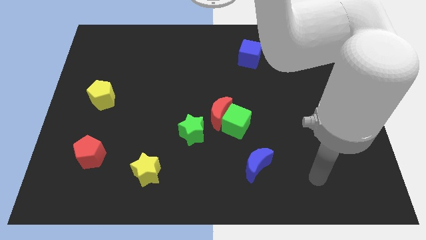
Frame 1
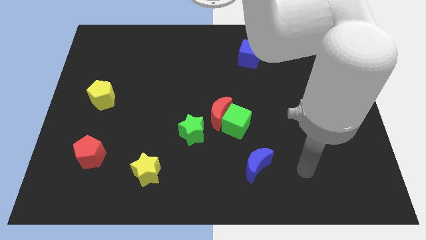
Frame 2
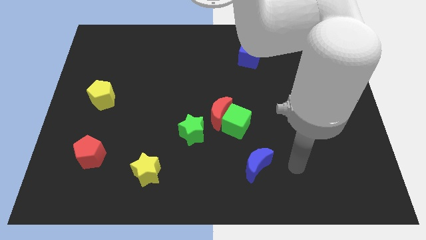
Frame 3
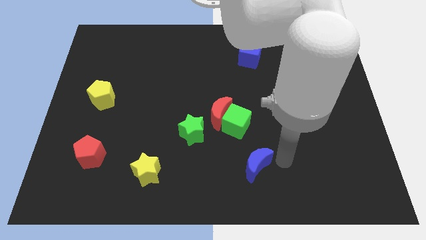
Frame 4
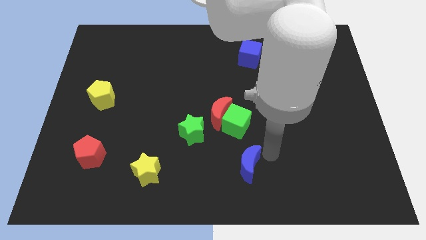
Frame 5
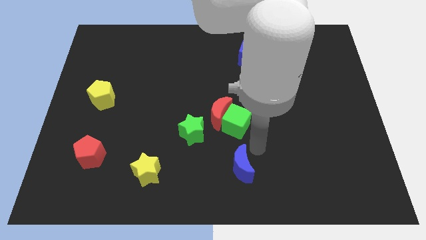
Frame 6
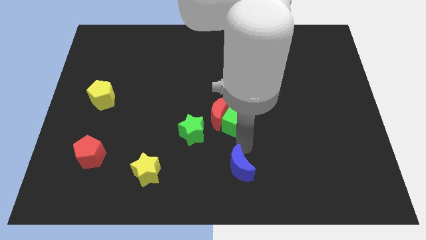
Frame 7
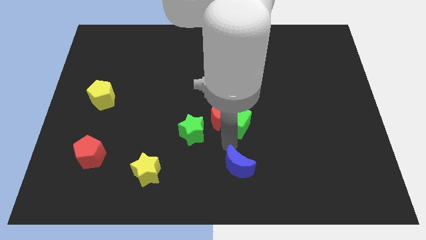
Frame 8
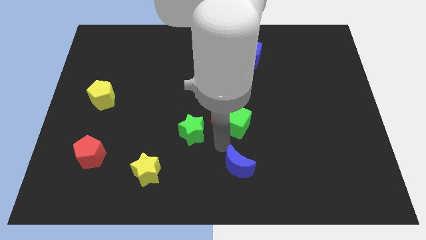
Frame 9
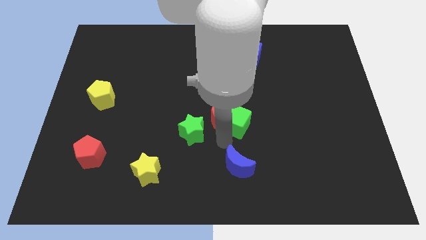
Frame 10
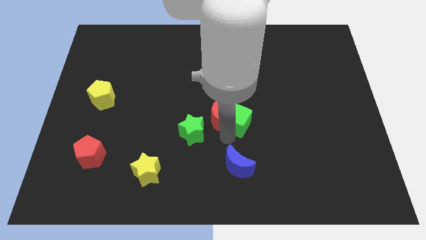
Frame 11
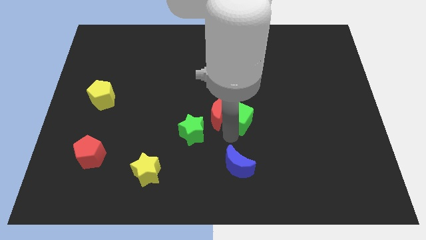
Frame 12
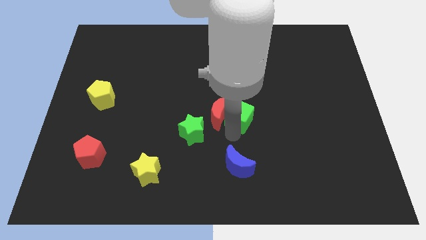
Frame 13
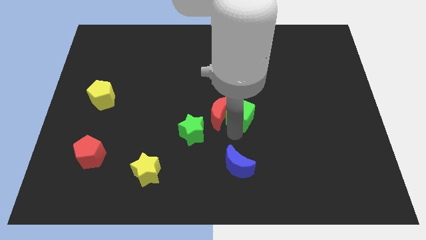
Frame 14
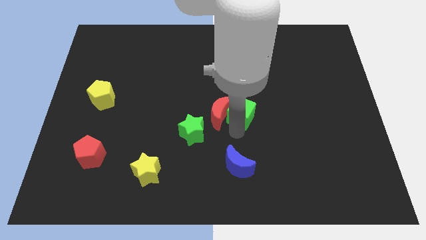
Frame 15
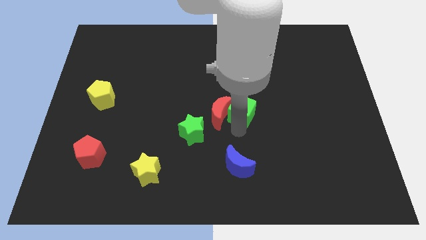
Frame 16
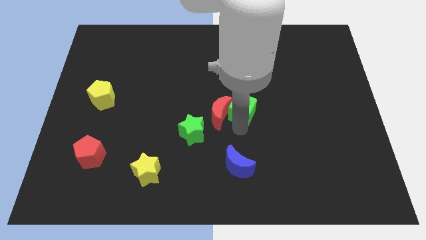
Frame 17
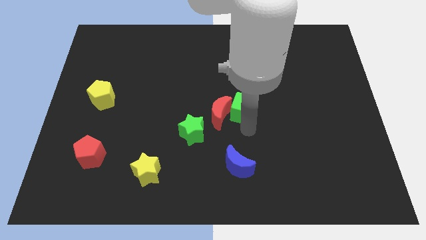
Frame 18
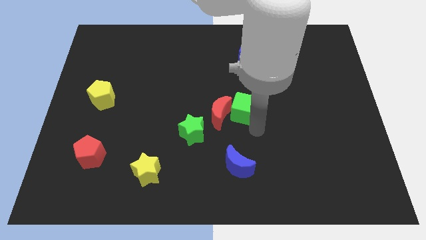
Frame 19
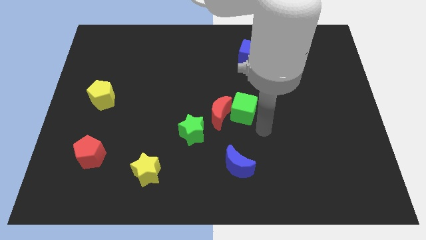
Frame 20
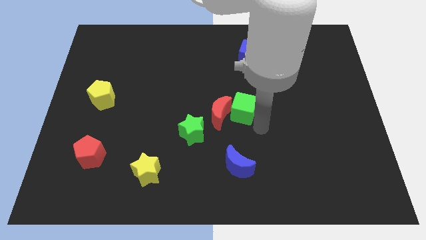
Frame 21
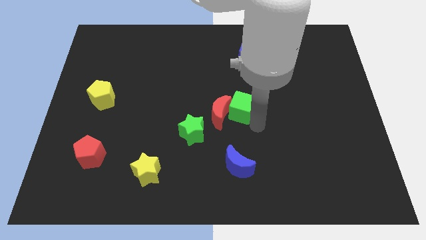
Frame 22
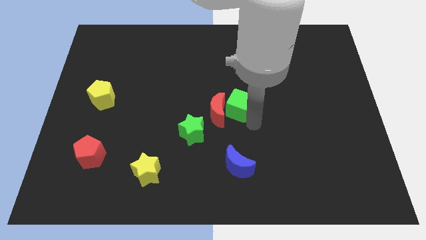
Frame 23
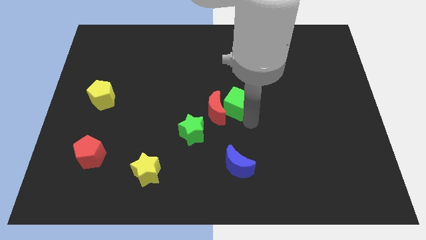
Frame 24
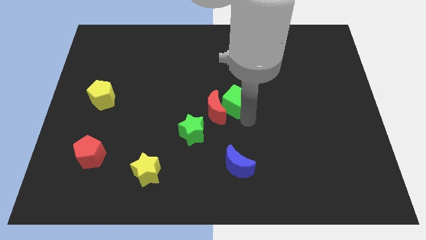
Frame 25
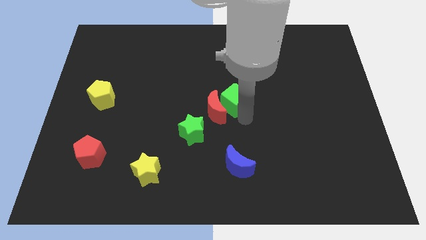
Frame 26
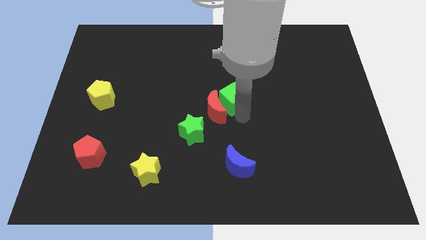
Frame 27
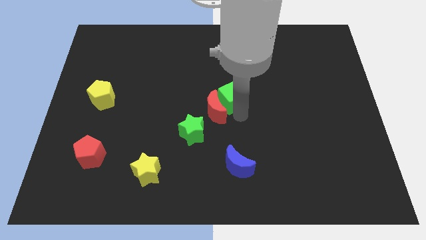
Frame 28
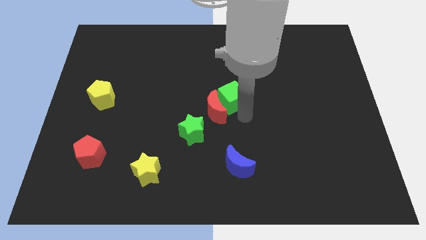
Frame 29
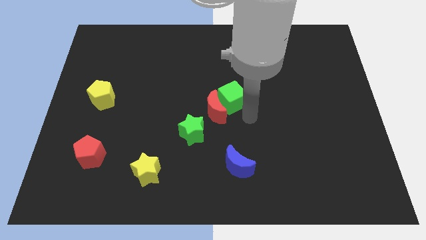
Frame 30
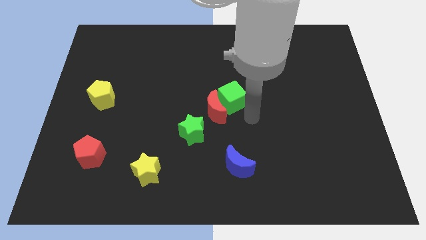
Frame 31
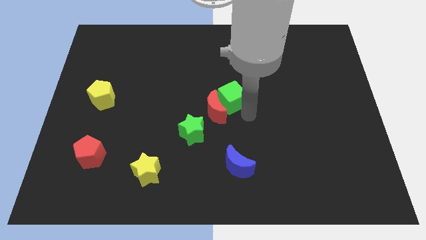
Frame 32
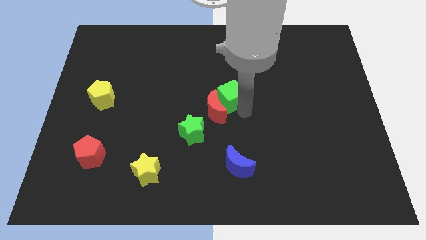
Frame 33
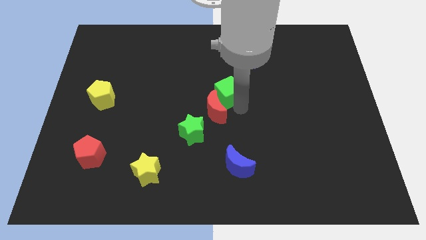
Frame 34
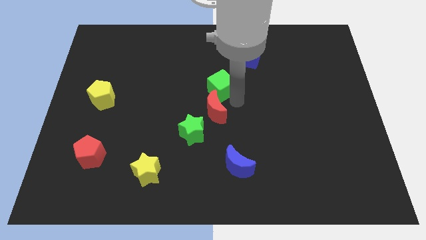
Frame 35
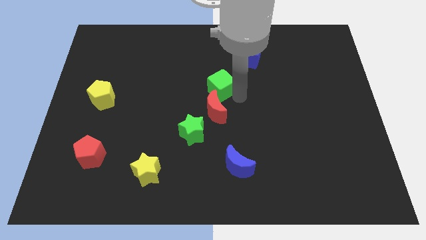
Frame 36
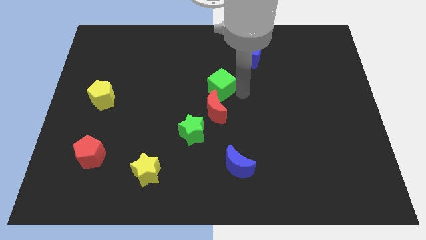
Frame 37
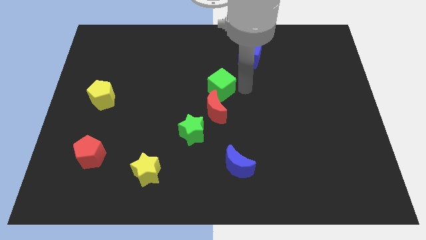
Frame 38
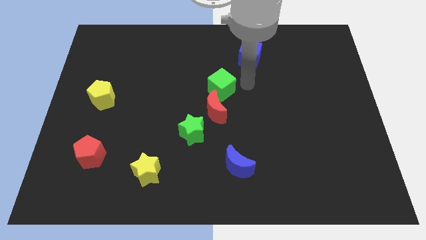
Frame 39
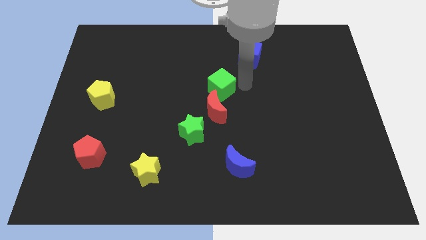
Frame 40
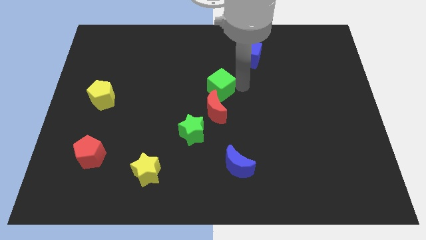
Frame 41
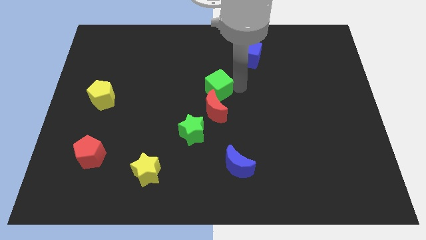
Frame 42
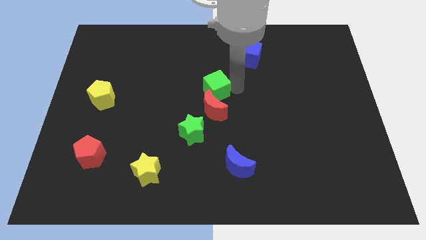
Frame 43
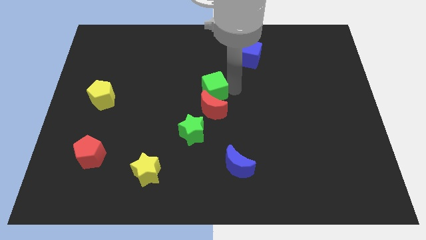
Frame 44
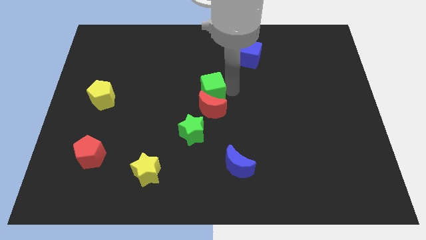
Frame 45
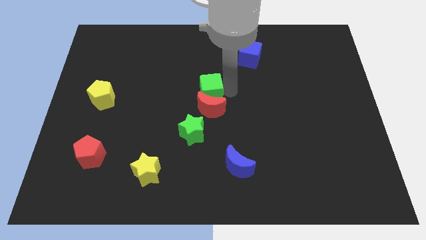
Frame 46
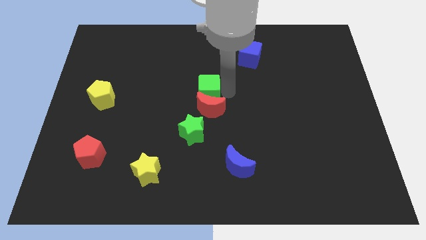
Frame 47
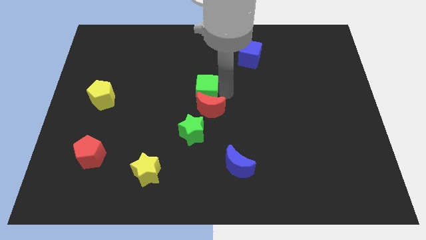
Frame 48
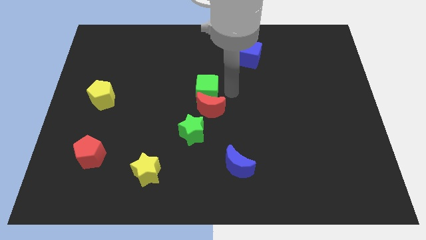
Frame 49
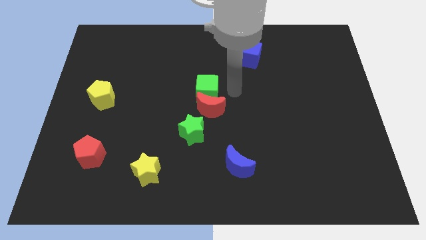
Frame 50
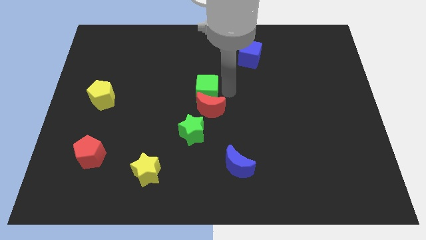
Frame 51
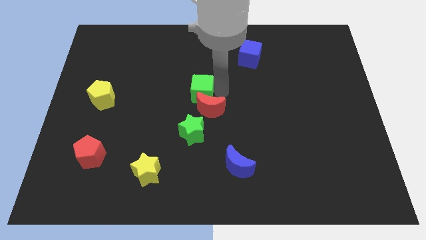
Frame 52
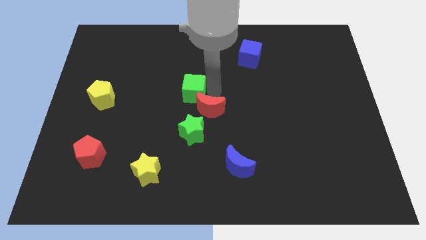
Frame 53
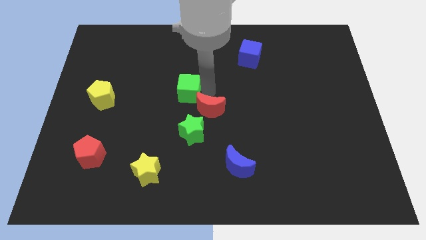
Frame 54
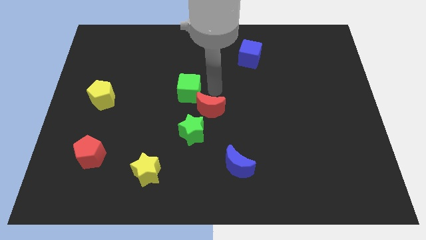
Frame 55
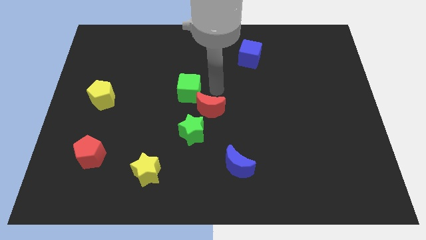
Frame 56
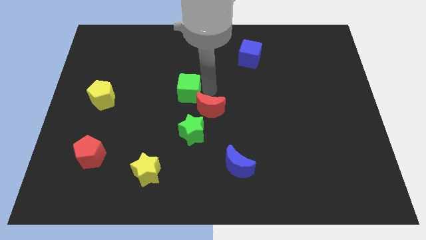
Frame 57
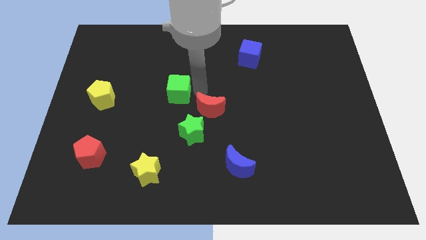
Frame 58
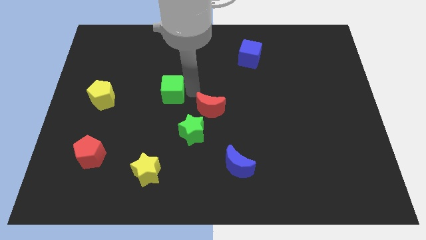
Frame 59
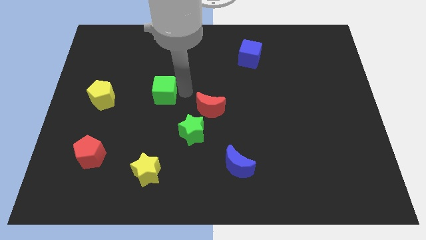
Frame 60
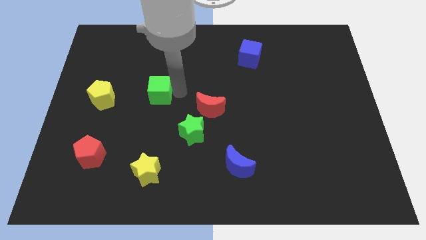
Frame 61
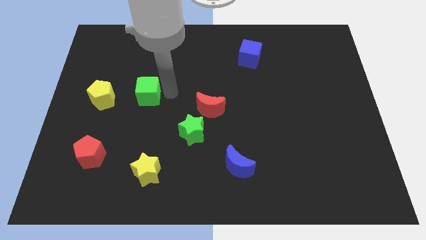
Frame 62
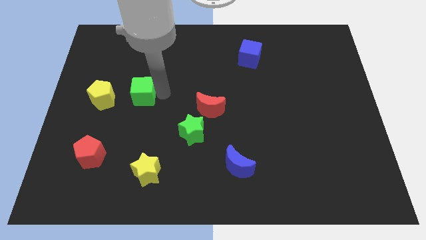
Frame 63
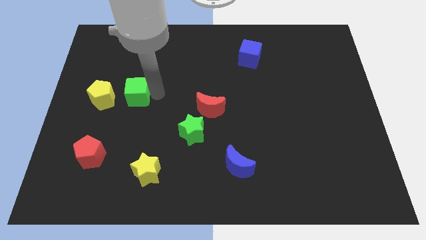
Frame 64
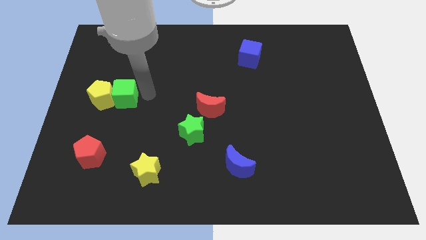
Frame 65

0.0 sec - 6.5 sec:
move the green cube next to the yellow pentagon
